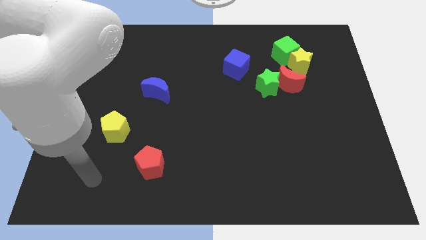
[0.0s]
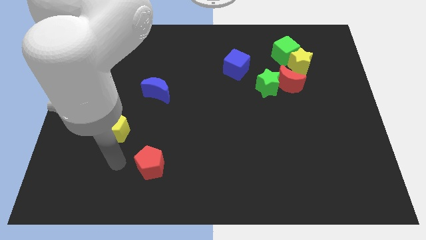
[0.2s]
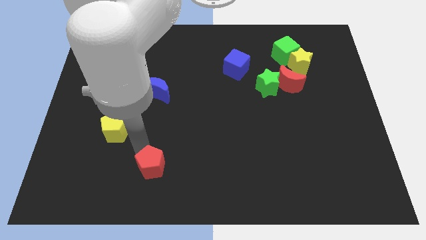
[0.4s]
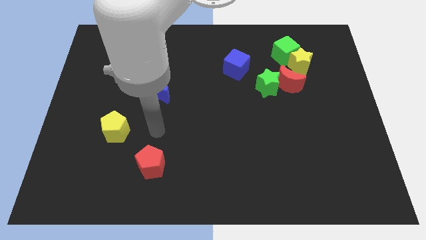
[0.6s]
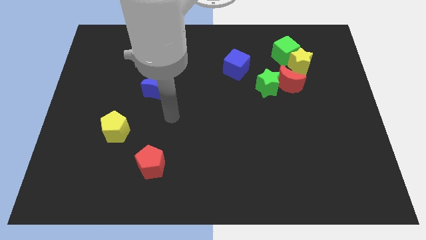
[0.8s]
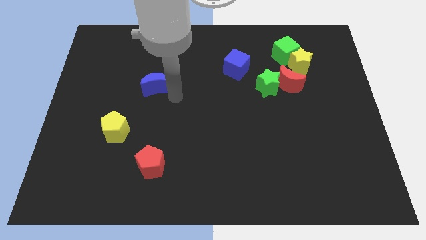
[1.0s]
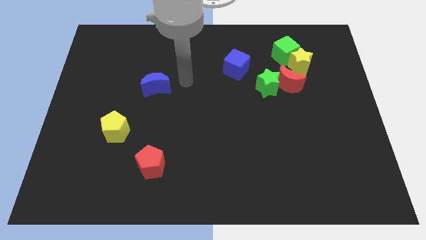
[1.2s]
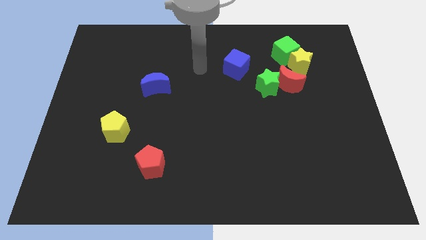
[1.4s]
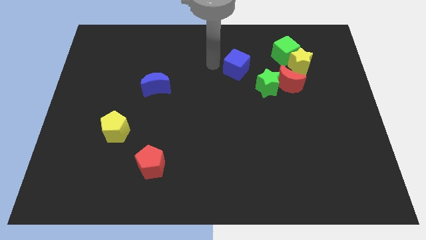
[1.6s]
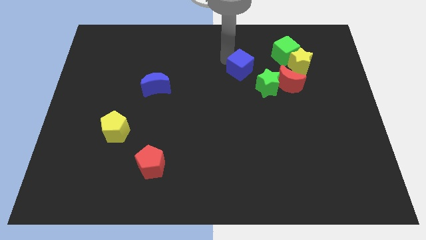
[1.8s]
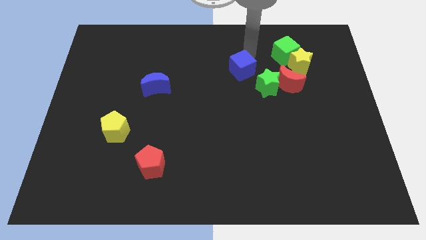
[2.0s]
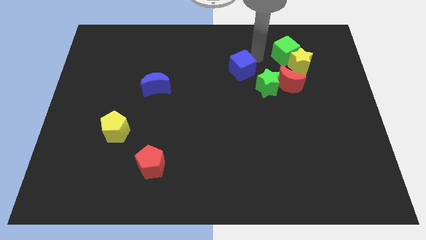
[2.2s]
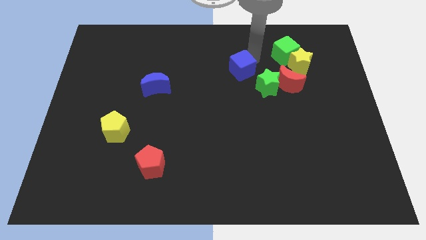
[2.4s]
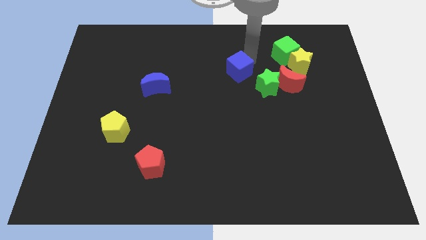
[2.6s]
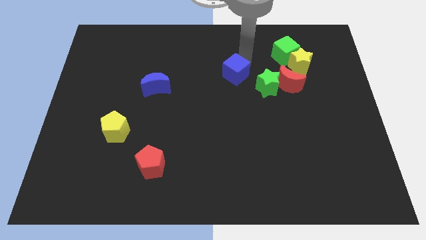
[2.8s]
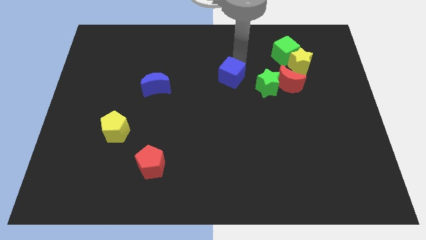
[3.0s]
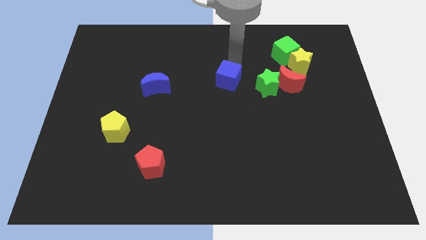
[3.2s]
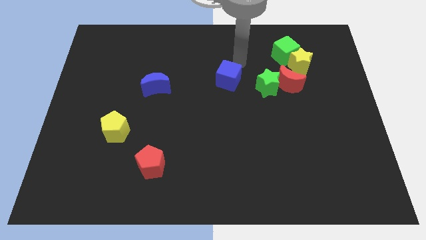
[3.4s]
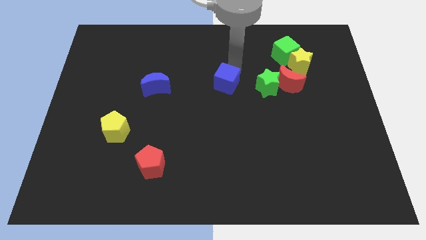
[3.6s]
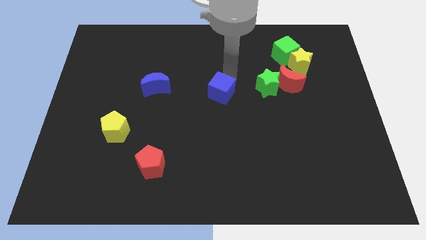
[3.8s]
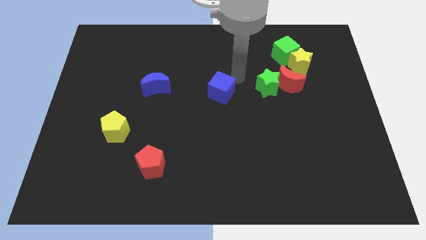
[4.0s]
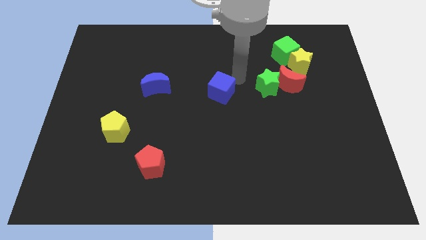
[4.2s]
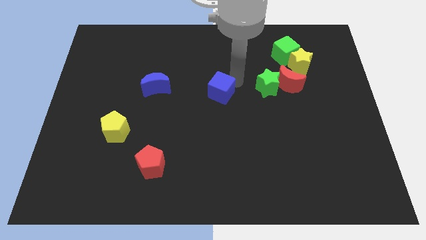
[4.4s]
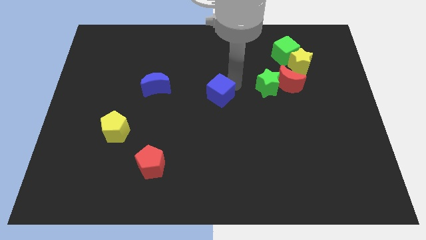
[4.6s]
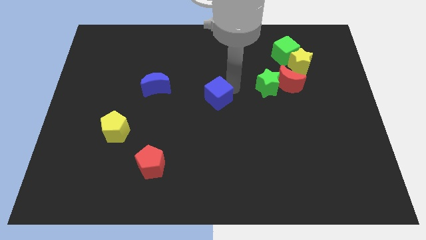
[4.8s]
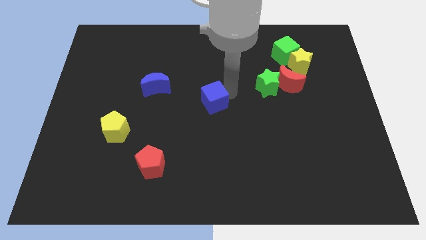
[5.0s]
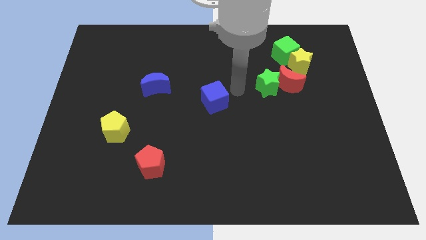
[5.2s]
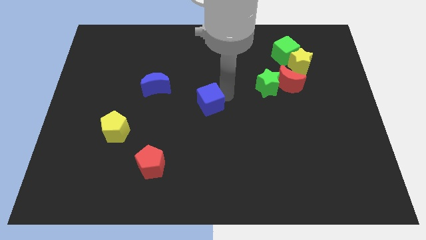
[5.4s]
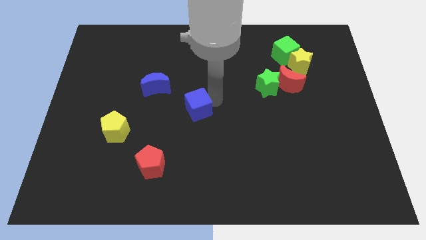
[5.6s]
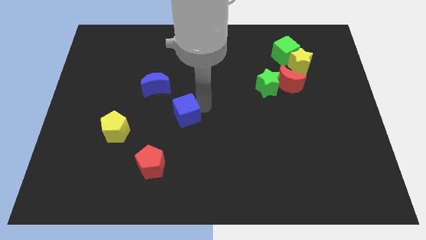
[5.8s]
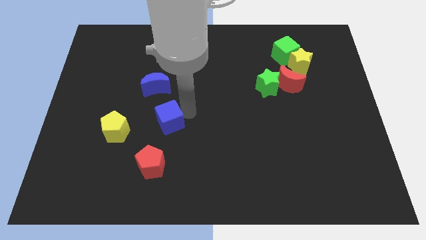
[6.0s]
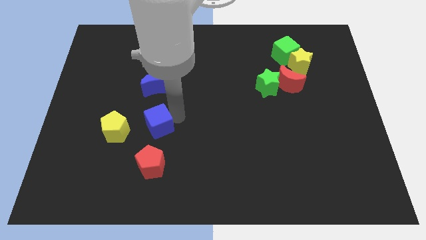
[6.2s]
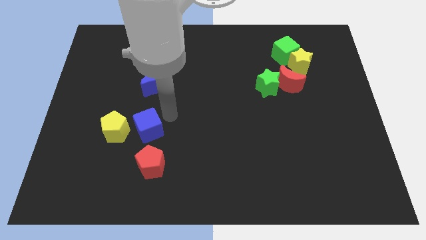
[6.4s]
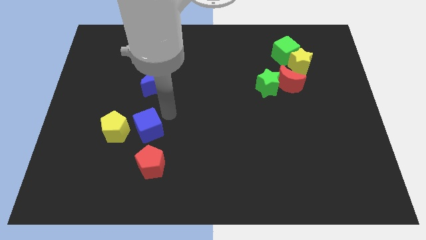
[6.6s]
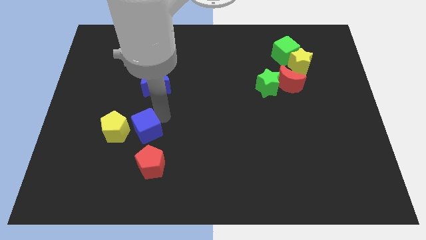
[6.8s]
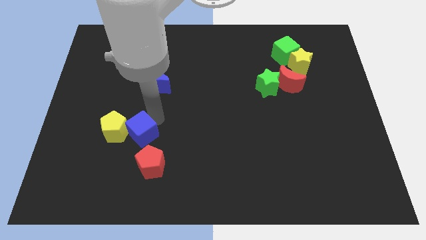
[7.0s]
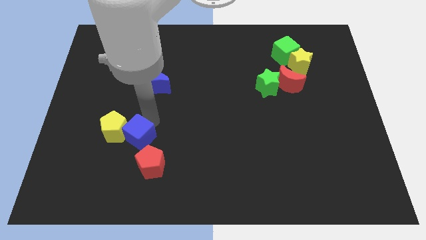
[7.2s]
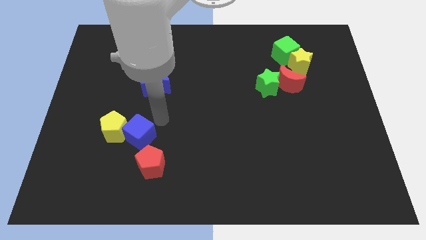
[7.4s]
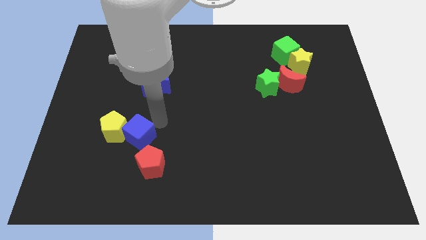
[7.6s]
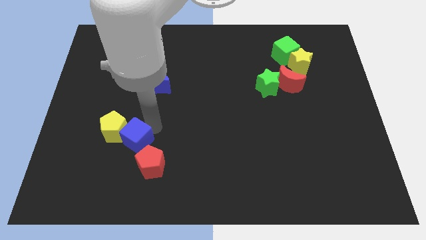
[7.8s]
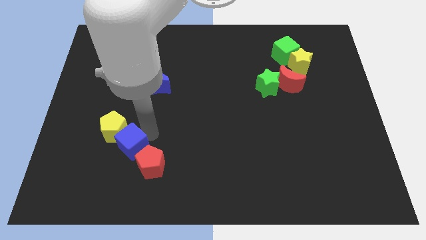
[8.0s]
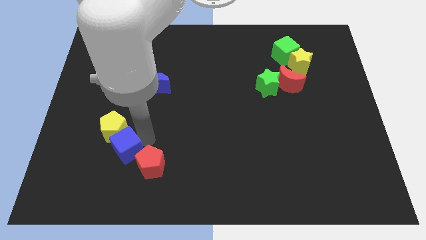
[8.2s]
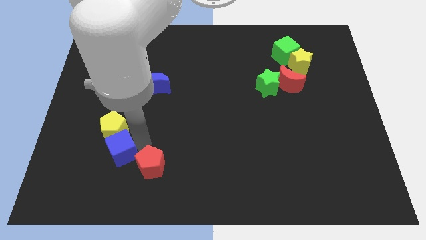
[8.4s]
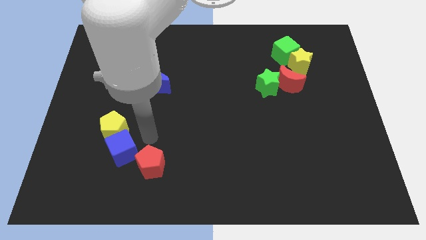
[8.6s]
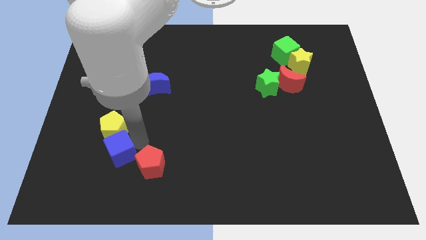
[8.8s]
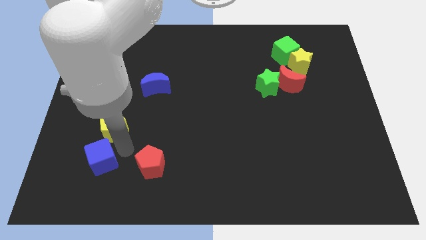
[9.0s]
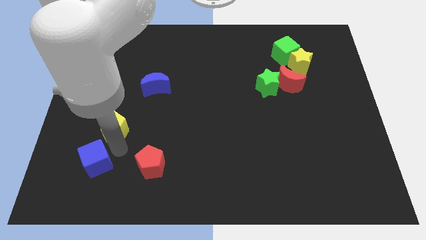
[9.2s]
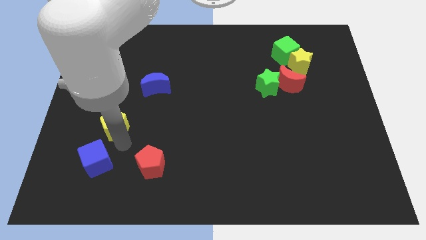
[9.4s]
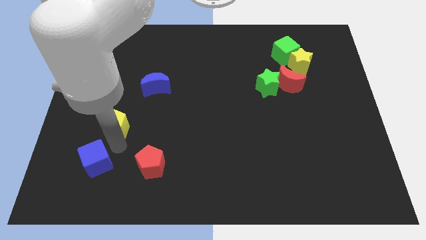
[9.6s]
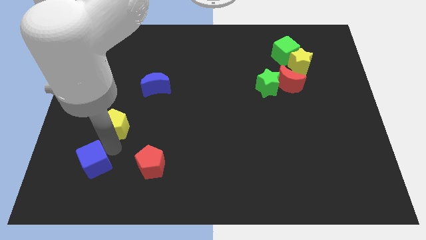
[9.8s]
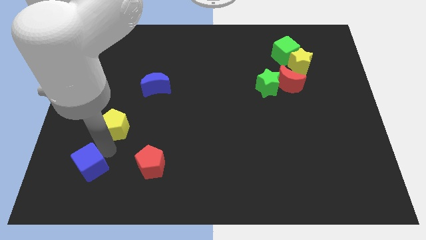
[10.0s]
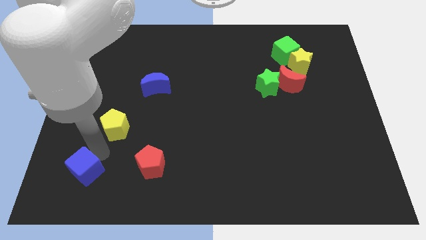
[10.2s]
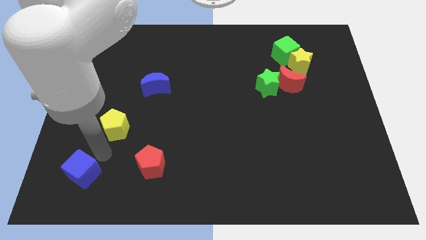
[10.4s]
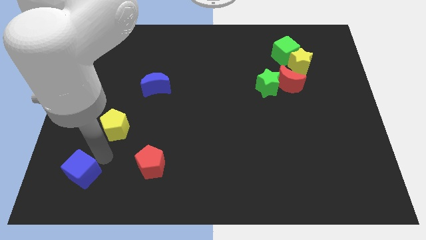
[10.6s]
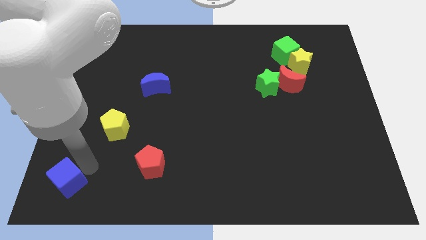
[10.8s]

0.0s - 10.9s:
push the blue cube to the lower left corner

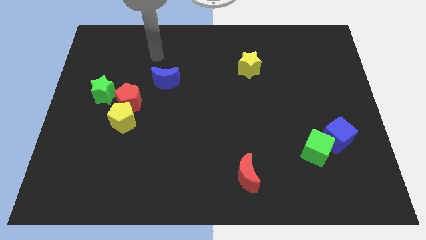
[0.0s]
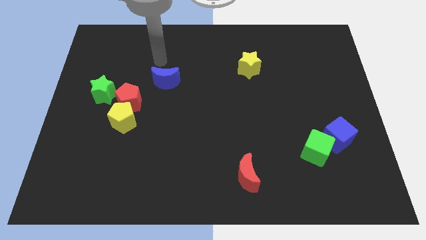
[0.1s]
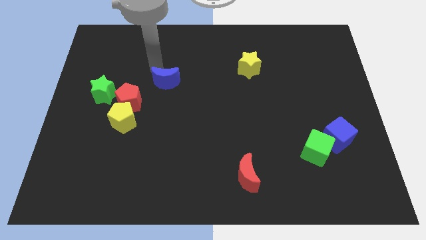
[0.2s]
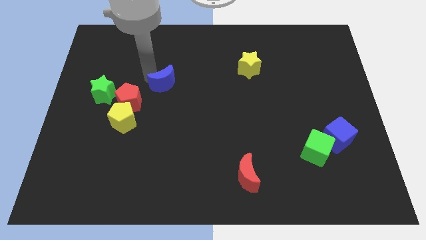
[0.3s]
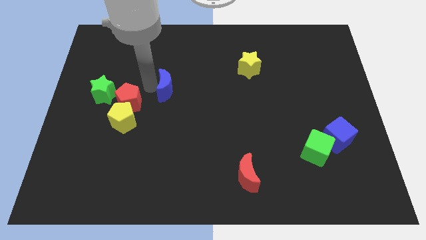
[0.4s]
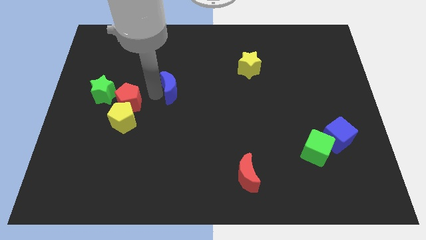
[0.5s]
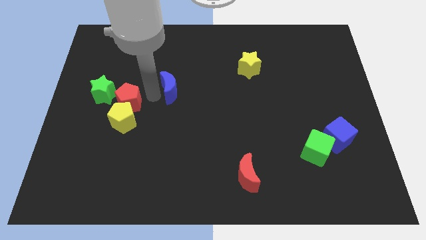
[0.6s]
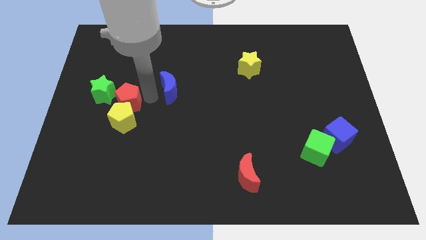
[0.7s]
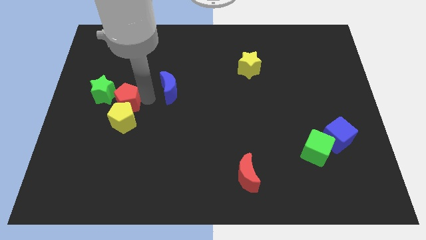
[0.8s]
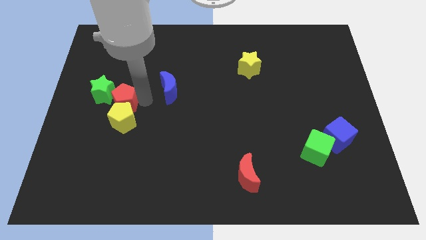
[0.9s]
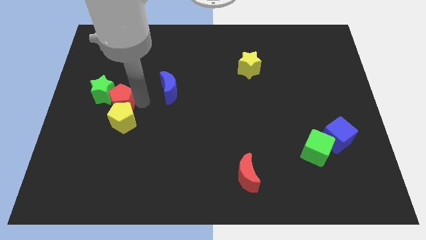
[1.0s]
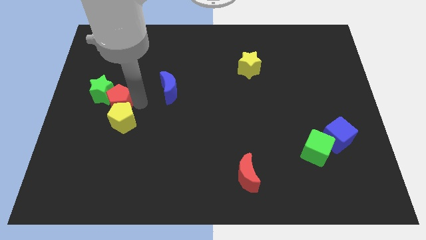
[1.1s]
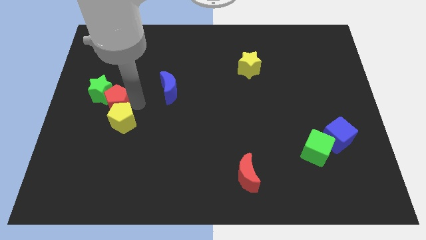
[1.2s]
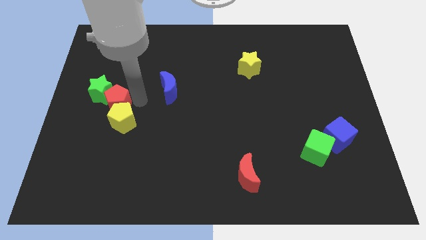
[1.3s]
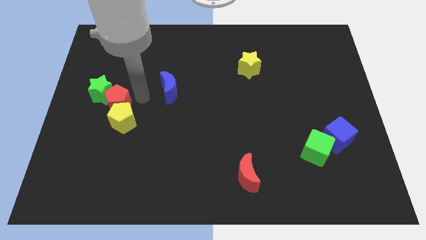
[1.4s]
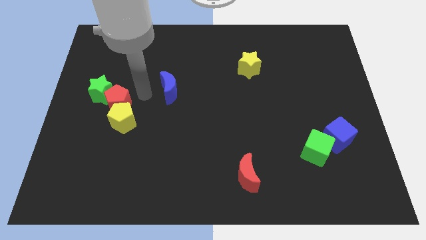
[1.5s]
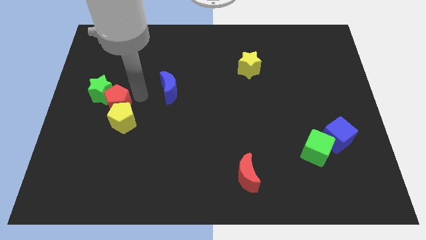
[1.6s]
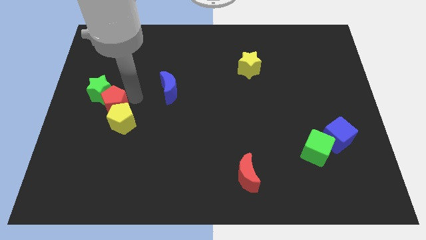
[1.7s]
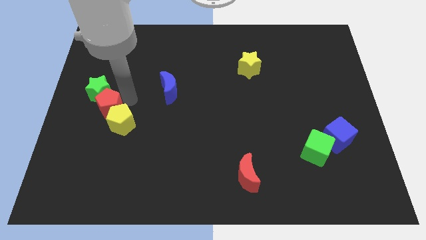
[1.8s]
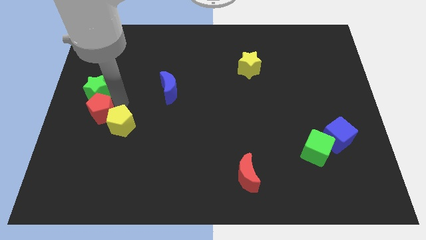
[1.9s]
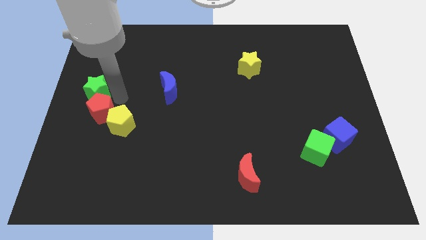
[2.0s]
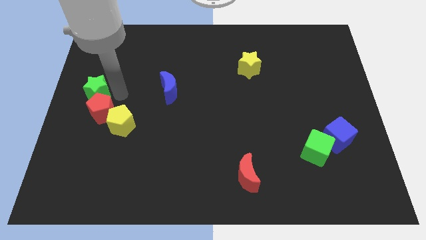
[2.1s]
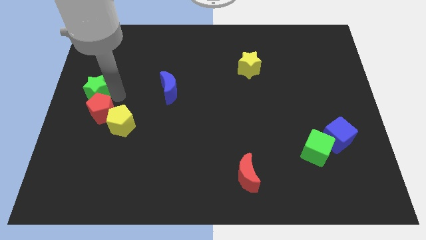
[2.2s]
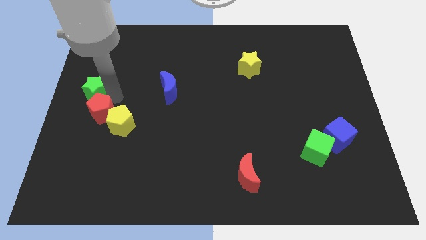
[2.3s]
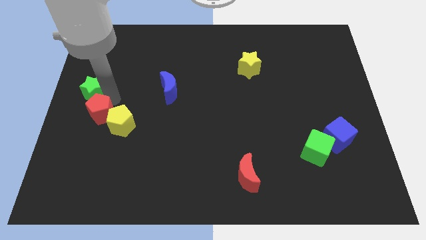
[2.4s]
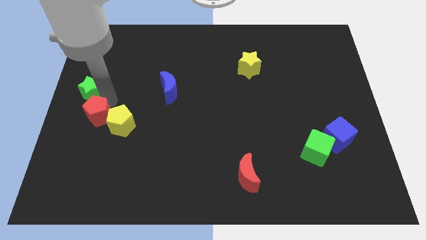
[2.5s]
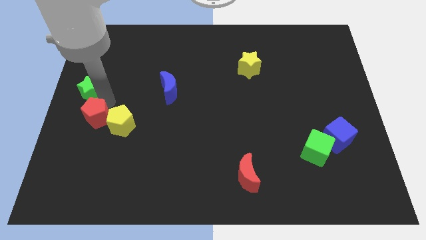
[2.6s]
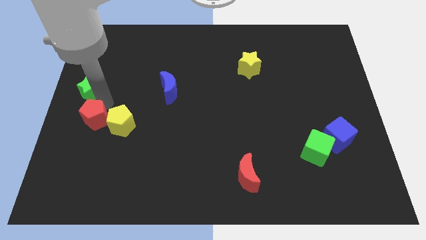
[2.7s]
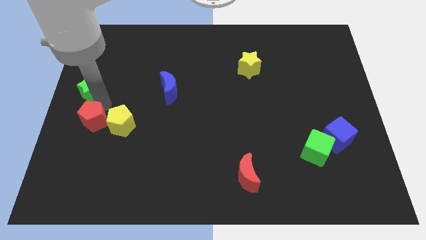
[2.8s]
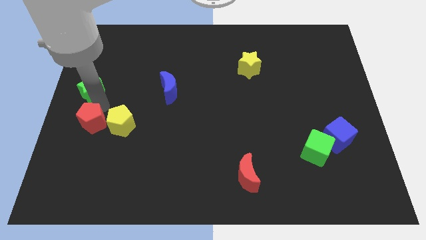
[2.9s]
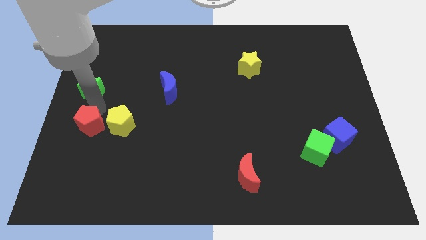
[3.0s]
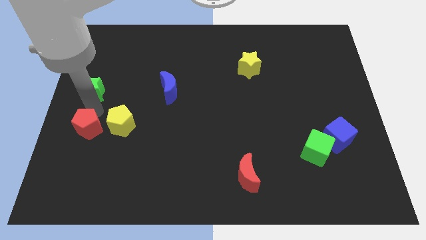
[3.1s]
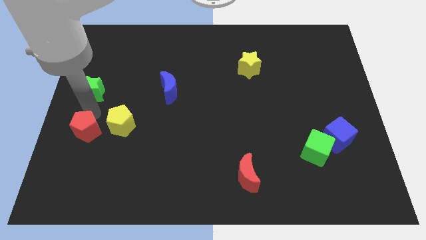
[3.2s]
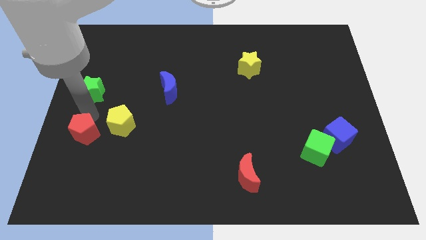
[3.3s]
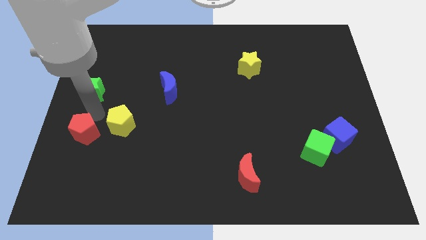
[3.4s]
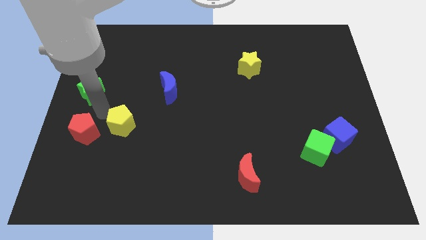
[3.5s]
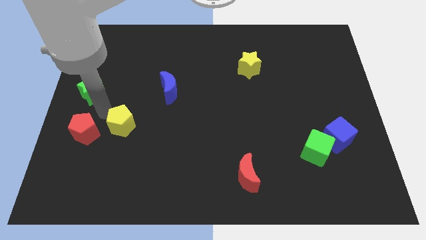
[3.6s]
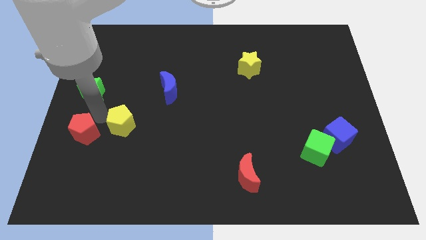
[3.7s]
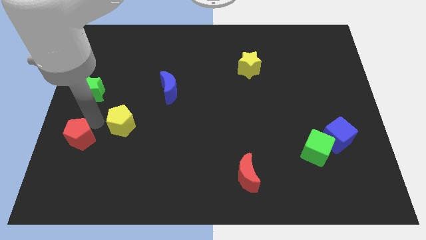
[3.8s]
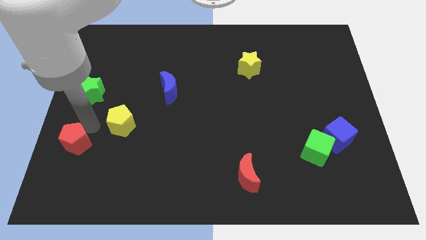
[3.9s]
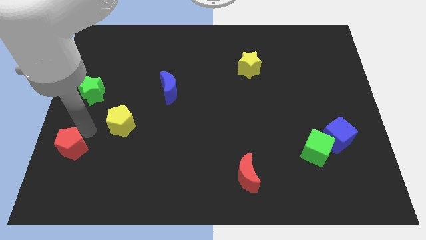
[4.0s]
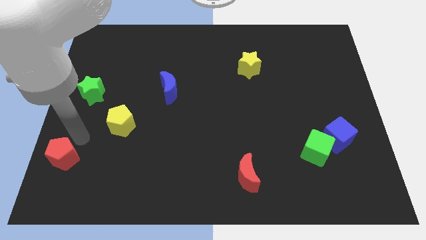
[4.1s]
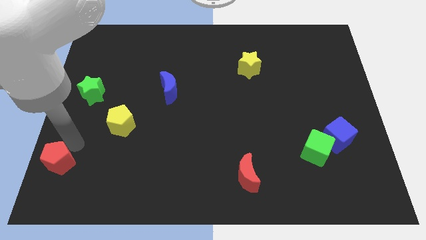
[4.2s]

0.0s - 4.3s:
slide the red pentagon to the lower left corner
